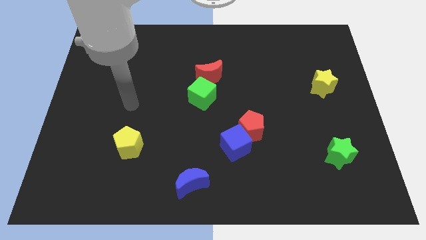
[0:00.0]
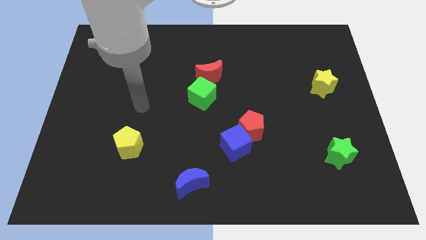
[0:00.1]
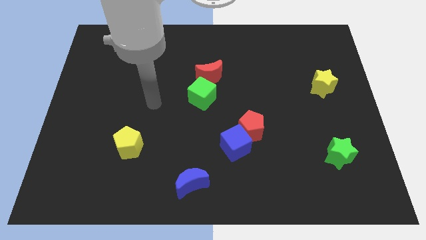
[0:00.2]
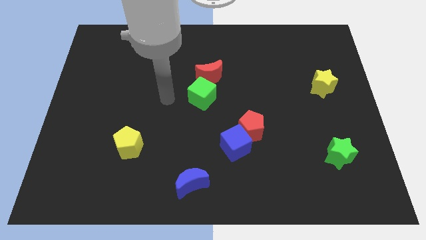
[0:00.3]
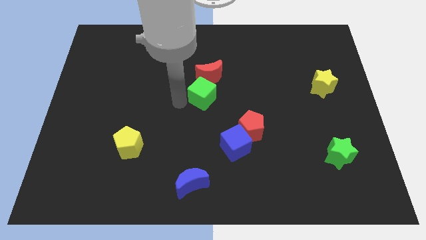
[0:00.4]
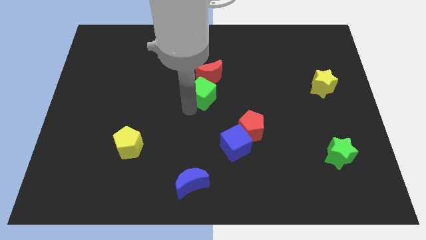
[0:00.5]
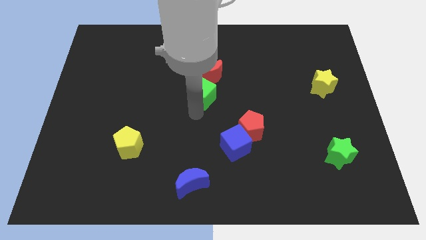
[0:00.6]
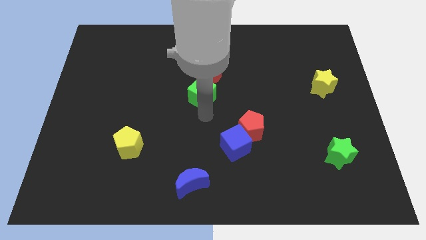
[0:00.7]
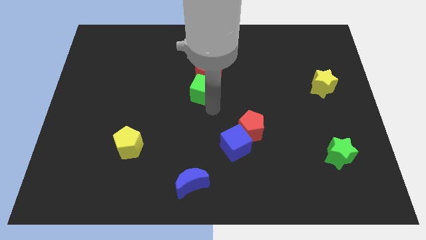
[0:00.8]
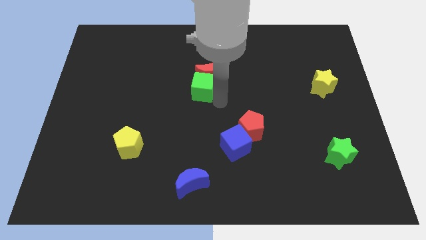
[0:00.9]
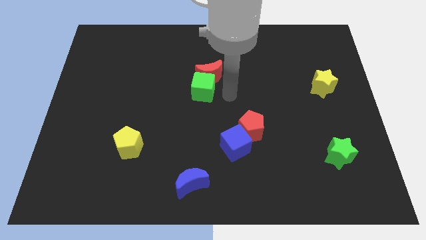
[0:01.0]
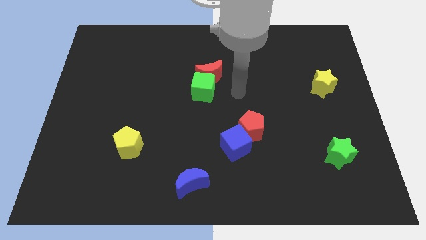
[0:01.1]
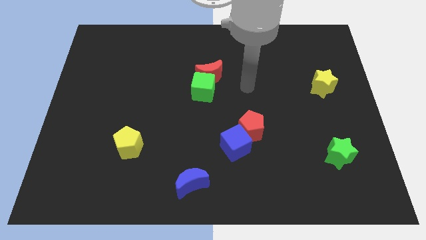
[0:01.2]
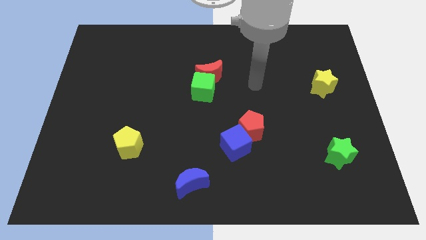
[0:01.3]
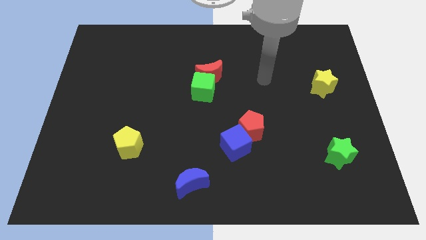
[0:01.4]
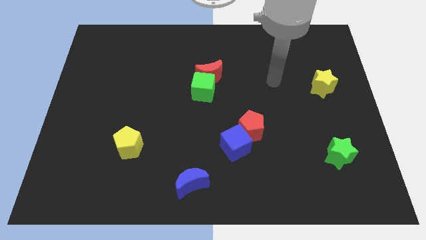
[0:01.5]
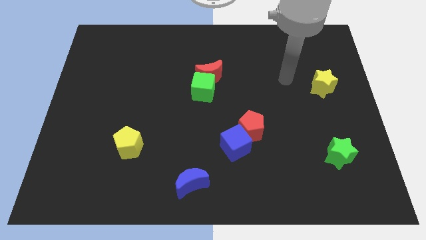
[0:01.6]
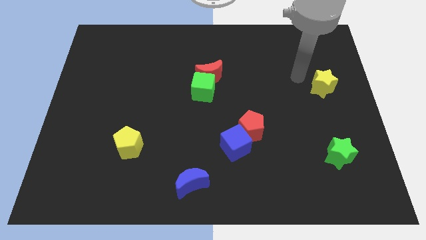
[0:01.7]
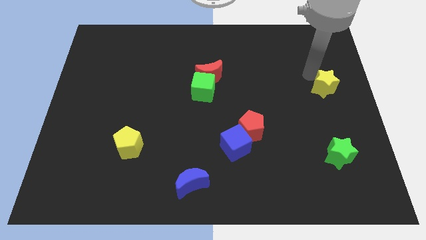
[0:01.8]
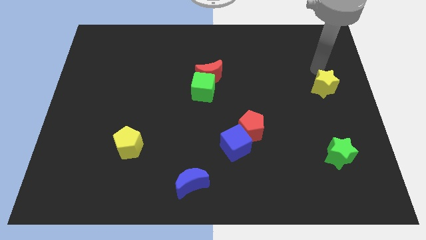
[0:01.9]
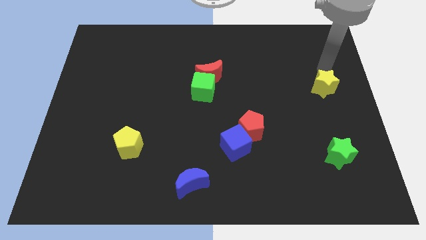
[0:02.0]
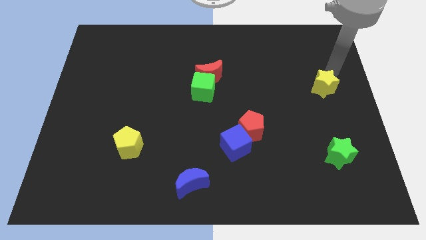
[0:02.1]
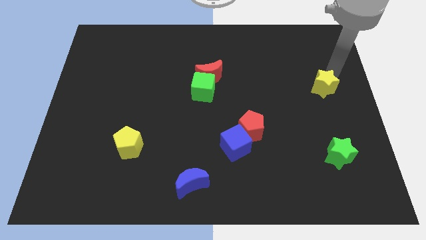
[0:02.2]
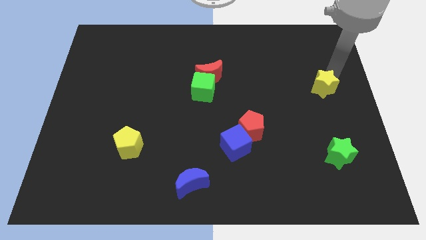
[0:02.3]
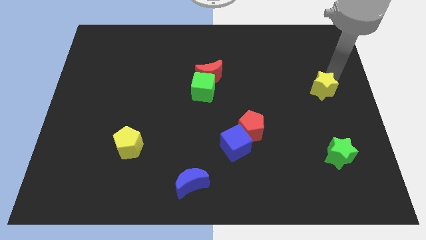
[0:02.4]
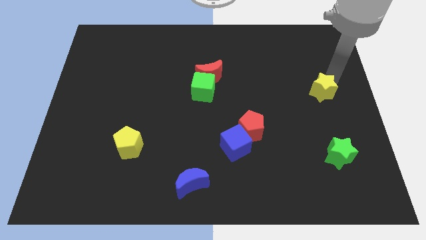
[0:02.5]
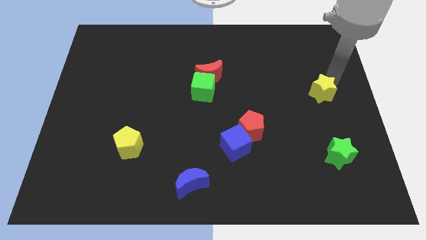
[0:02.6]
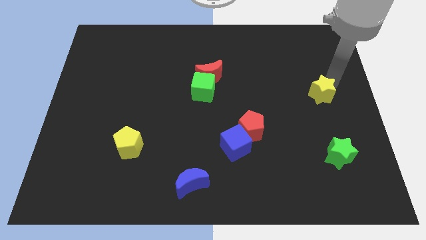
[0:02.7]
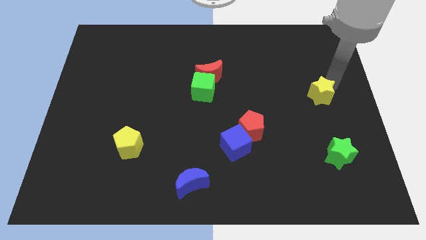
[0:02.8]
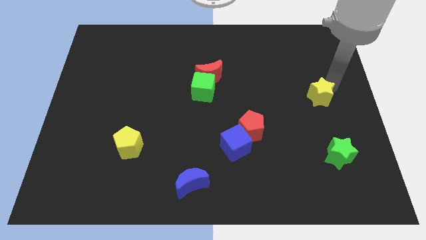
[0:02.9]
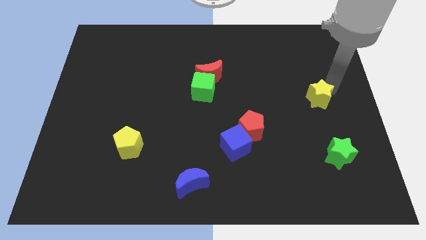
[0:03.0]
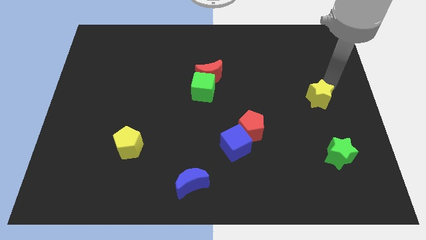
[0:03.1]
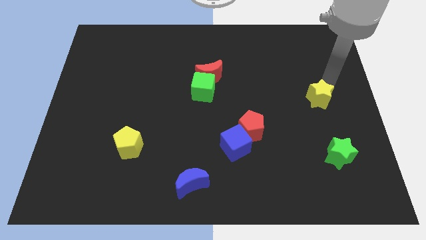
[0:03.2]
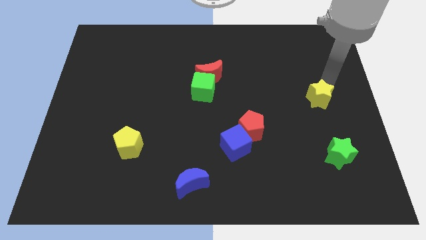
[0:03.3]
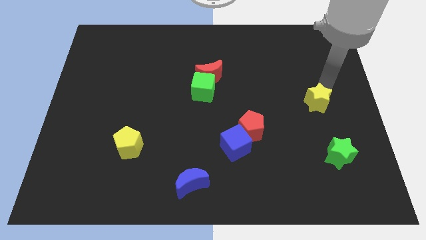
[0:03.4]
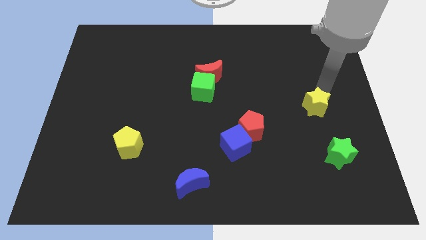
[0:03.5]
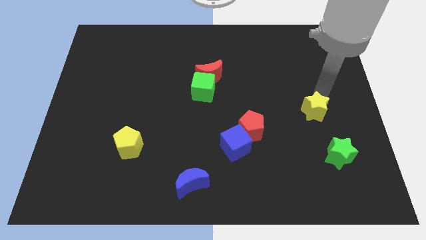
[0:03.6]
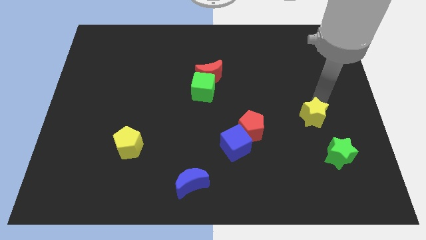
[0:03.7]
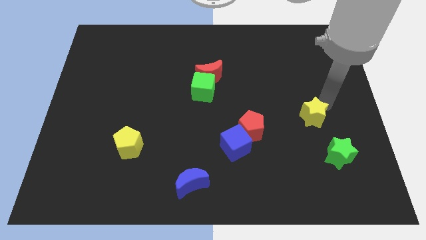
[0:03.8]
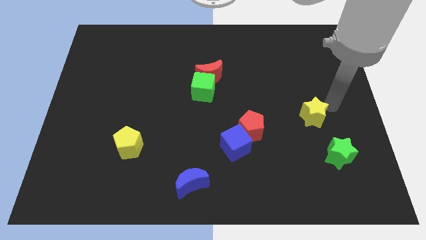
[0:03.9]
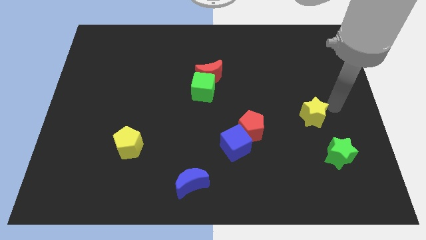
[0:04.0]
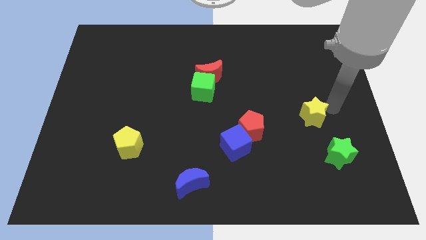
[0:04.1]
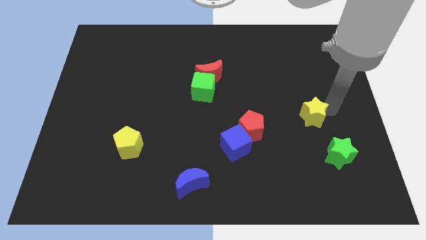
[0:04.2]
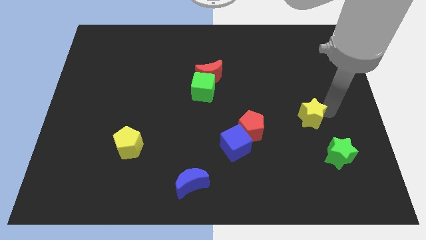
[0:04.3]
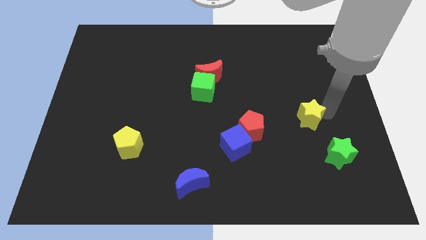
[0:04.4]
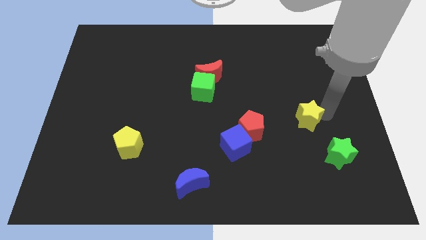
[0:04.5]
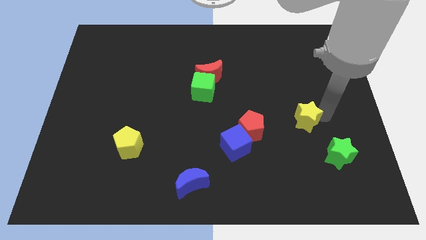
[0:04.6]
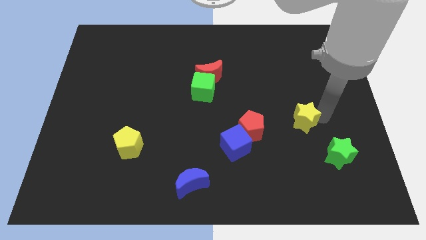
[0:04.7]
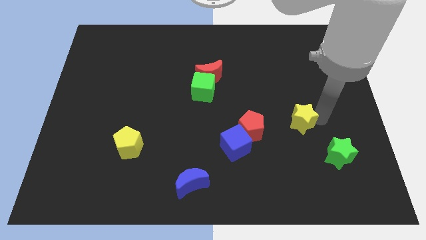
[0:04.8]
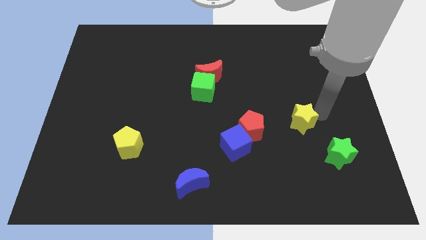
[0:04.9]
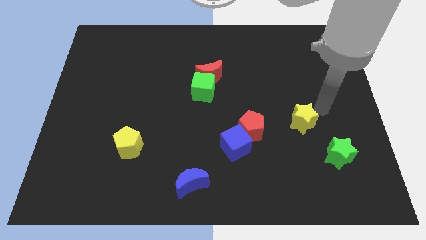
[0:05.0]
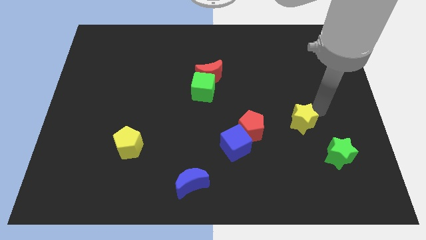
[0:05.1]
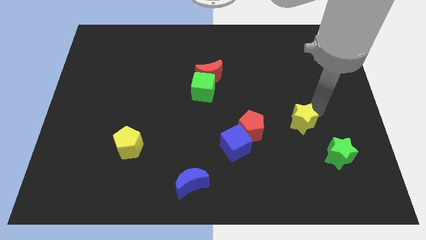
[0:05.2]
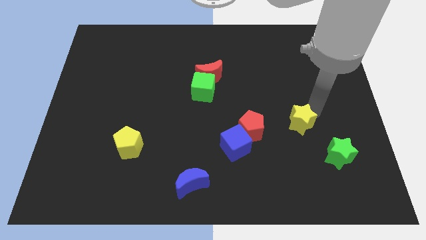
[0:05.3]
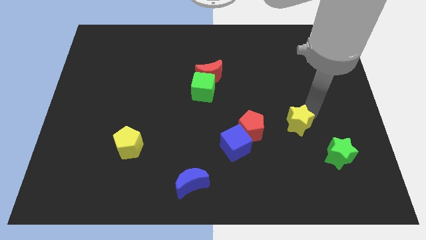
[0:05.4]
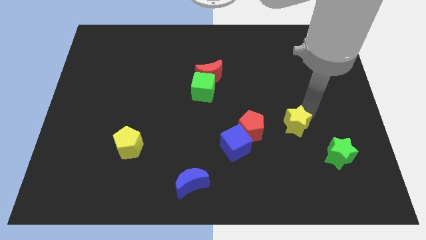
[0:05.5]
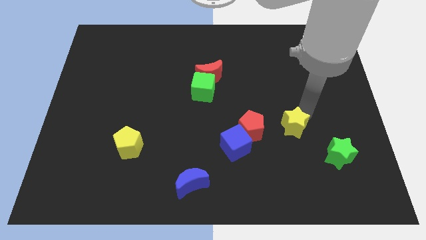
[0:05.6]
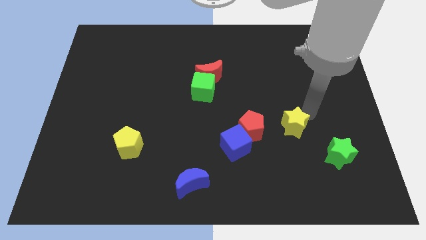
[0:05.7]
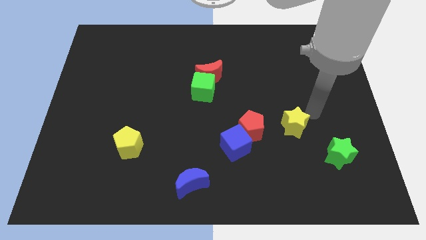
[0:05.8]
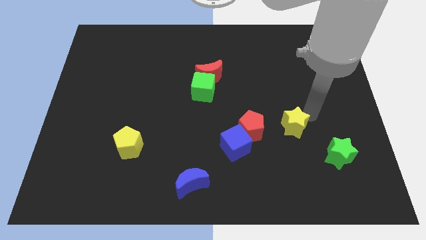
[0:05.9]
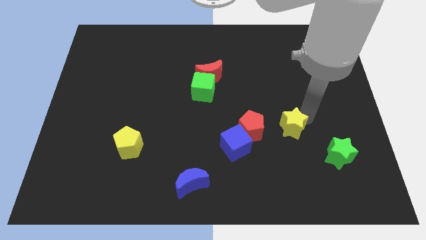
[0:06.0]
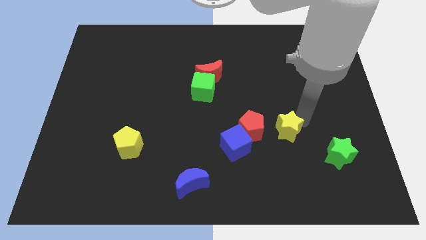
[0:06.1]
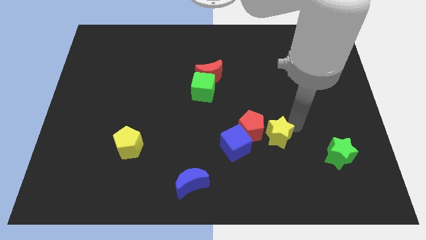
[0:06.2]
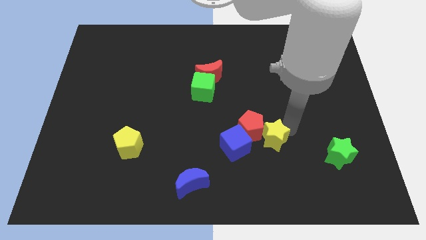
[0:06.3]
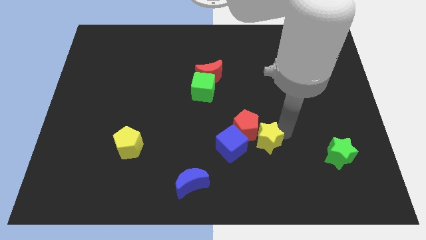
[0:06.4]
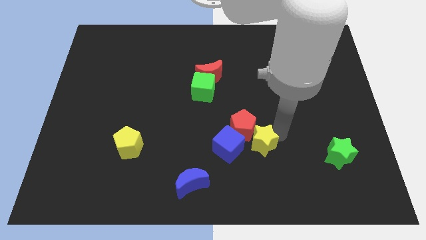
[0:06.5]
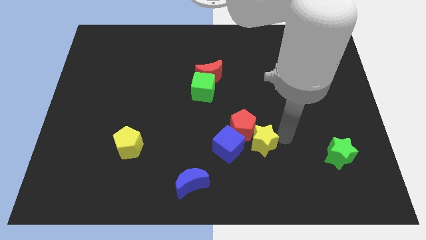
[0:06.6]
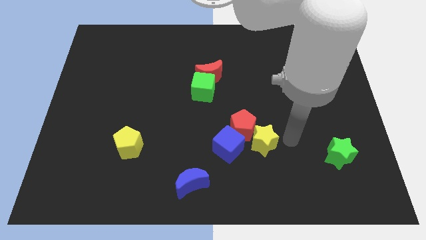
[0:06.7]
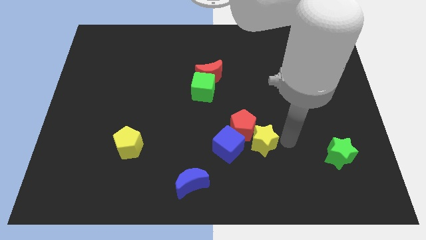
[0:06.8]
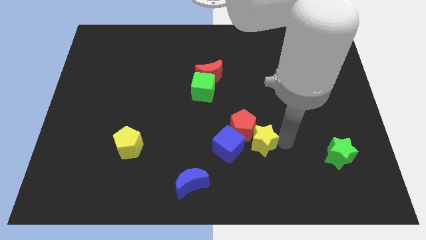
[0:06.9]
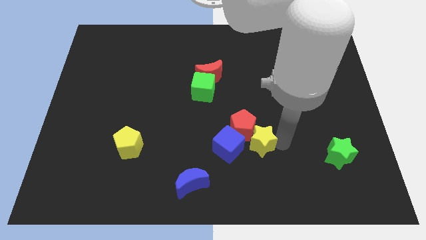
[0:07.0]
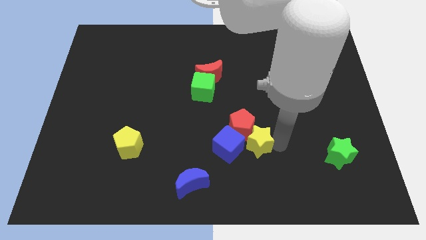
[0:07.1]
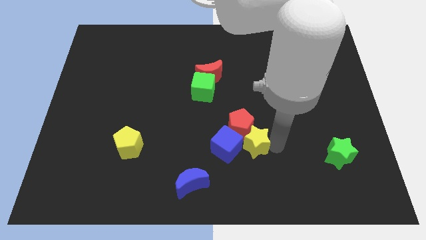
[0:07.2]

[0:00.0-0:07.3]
put the yellow star next to the blue cube
